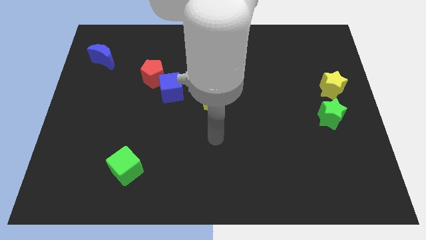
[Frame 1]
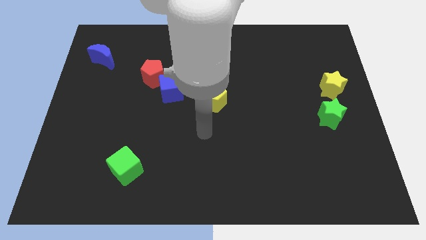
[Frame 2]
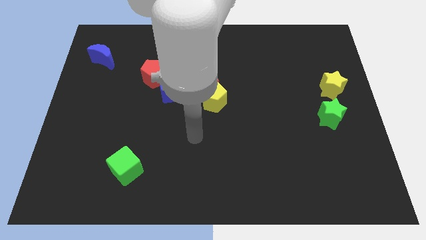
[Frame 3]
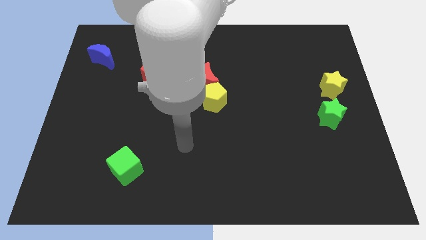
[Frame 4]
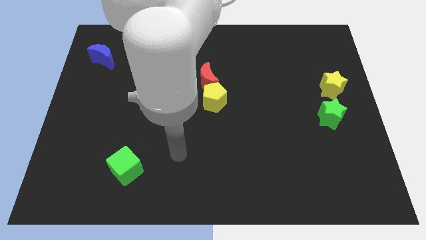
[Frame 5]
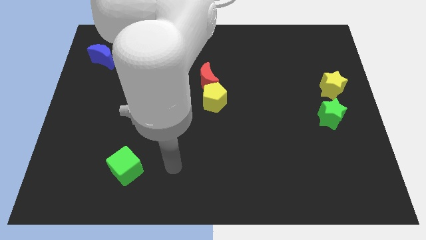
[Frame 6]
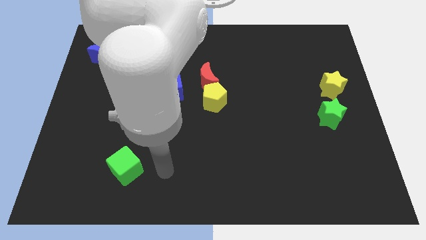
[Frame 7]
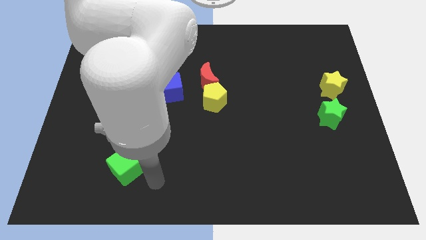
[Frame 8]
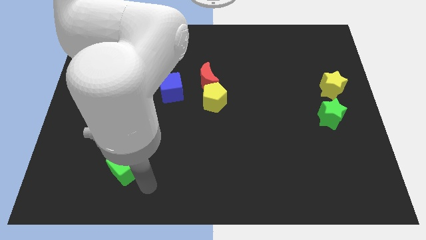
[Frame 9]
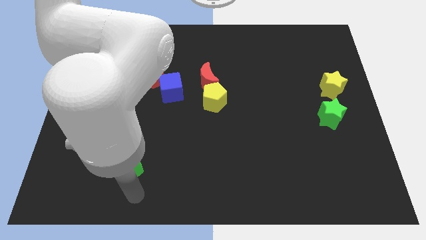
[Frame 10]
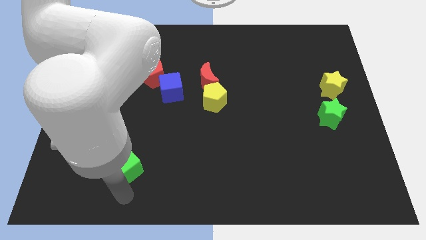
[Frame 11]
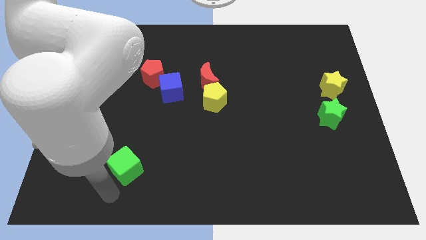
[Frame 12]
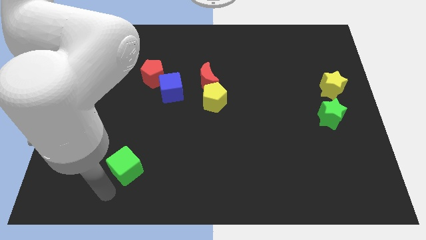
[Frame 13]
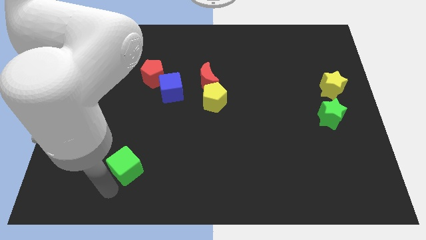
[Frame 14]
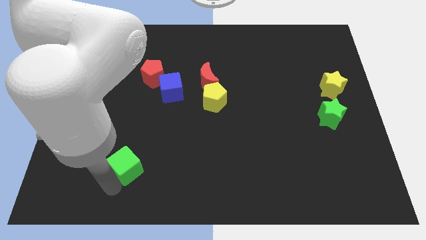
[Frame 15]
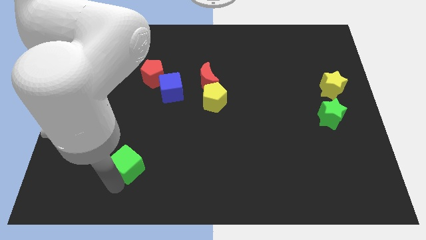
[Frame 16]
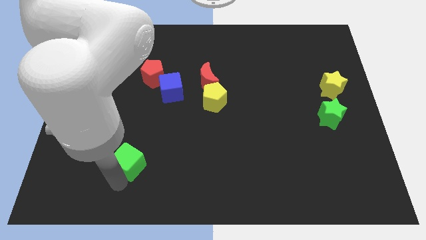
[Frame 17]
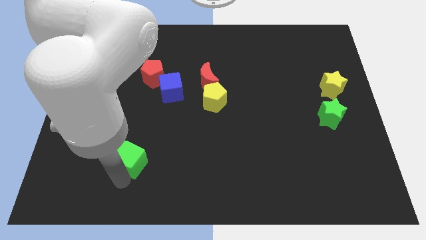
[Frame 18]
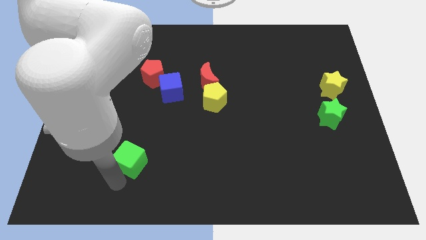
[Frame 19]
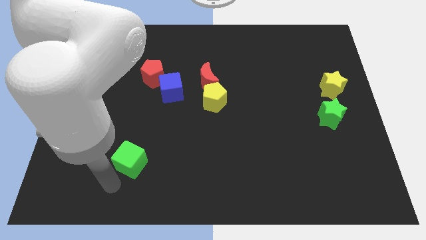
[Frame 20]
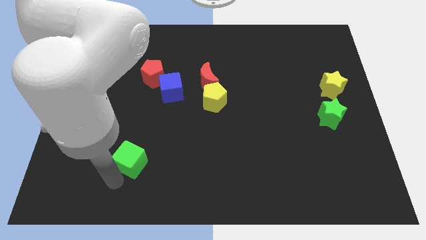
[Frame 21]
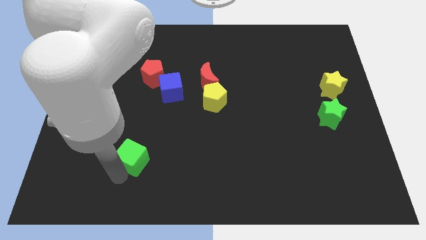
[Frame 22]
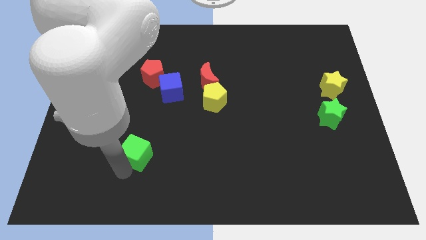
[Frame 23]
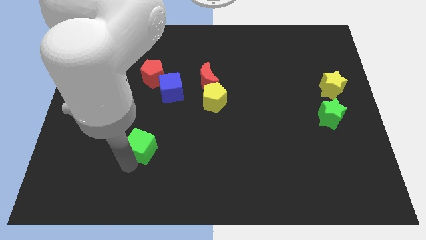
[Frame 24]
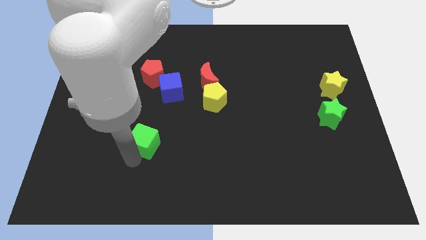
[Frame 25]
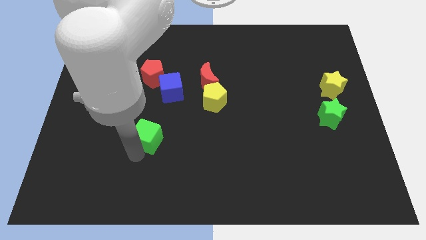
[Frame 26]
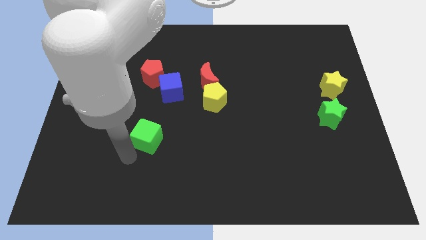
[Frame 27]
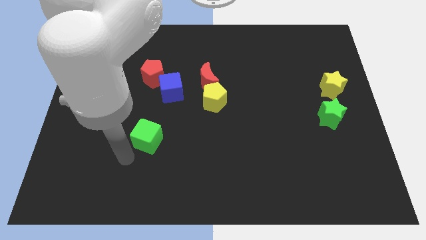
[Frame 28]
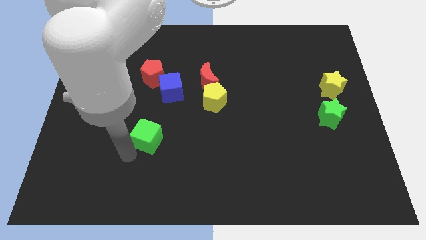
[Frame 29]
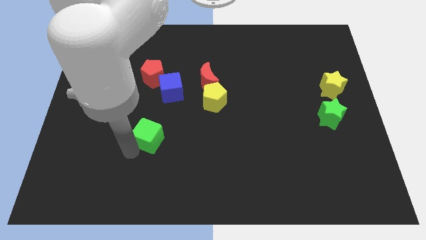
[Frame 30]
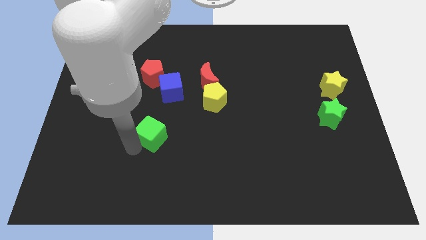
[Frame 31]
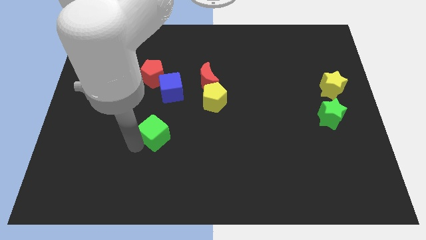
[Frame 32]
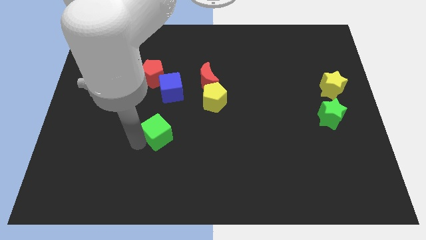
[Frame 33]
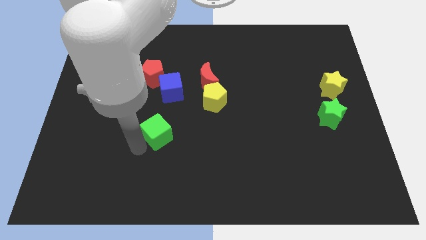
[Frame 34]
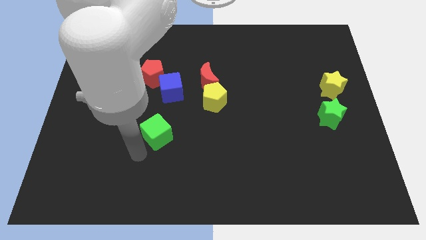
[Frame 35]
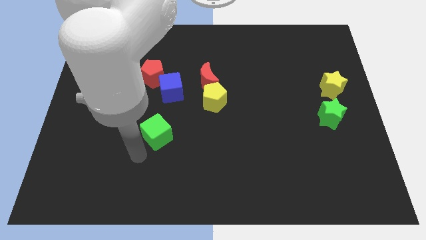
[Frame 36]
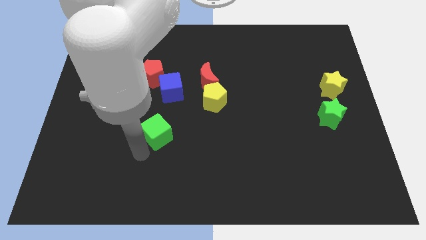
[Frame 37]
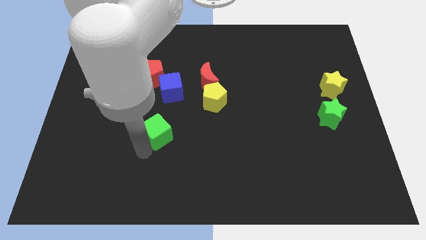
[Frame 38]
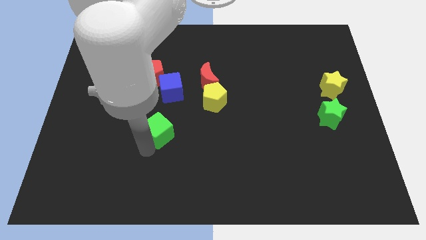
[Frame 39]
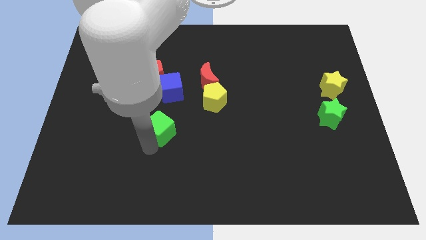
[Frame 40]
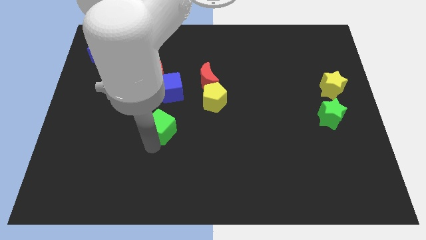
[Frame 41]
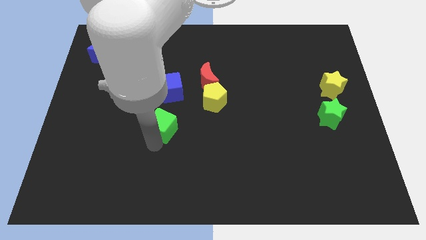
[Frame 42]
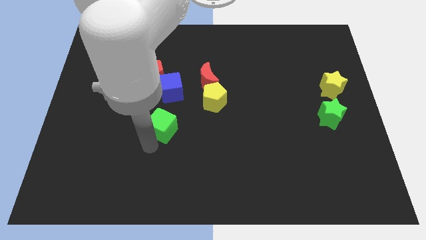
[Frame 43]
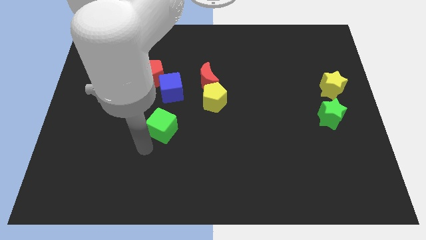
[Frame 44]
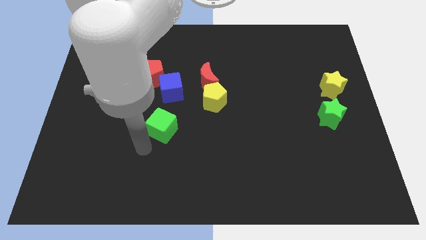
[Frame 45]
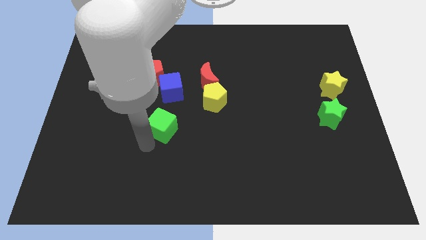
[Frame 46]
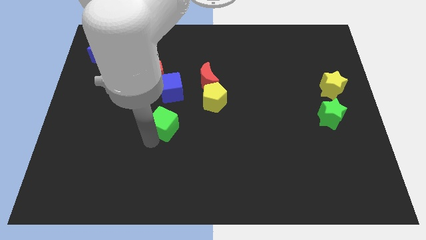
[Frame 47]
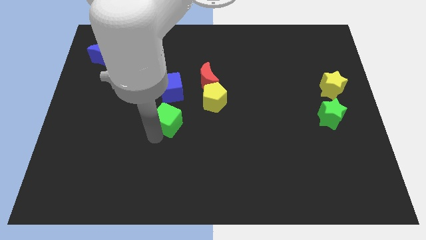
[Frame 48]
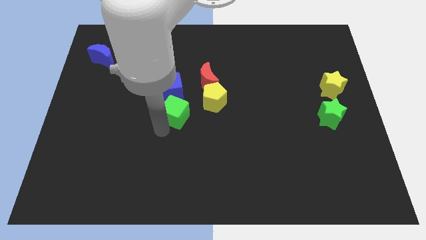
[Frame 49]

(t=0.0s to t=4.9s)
slide the green cube to the bottom left side of the red moon

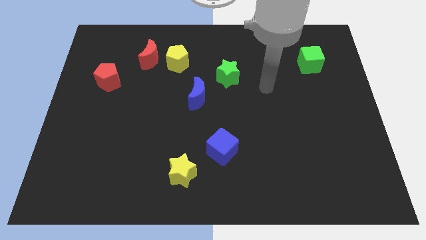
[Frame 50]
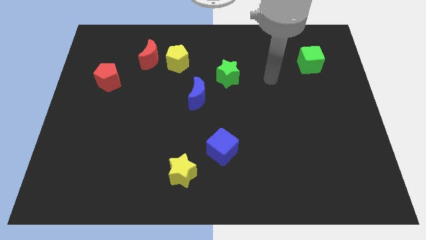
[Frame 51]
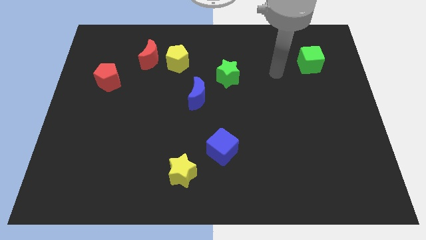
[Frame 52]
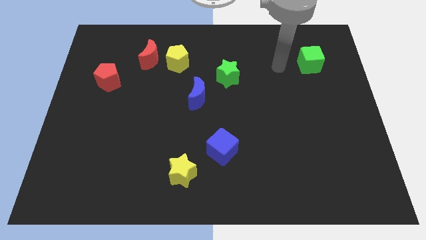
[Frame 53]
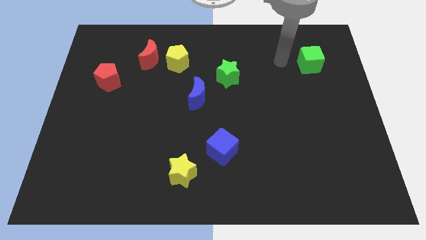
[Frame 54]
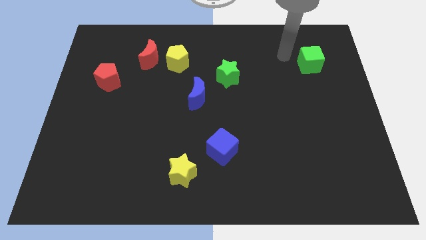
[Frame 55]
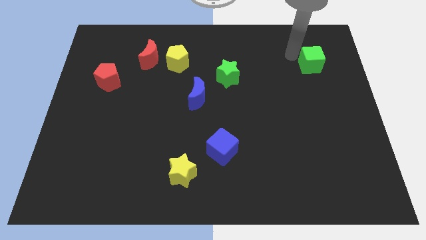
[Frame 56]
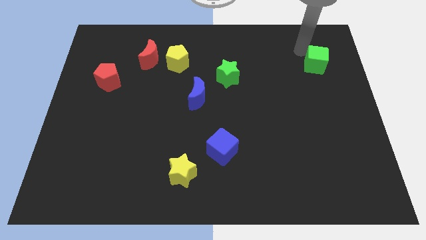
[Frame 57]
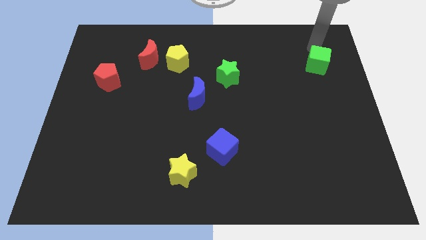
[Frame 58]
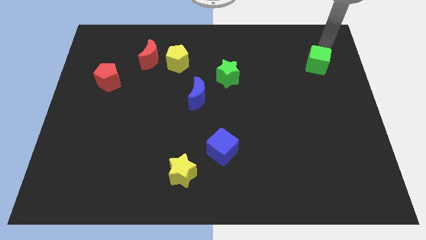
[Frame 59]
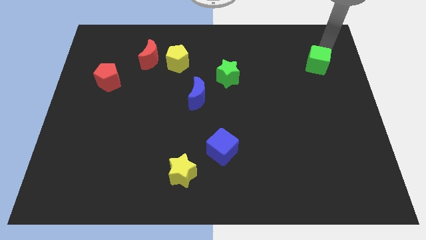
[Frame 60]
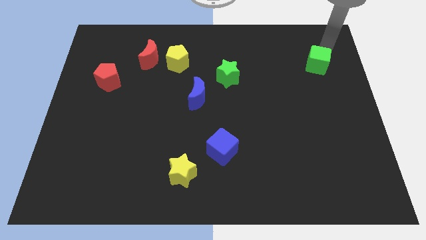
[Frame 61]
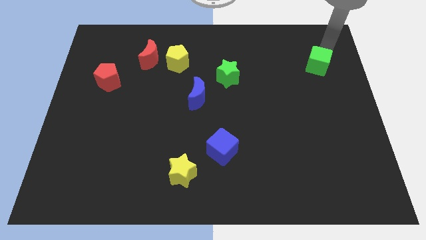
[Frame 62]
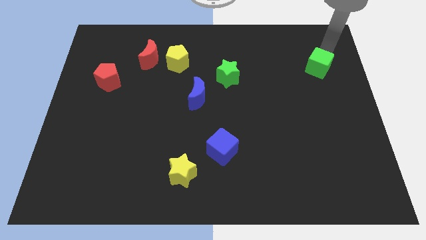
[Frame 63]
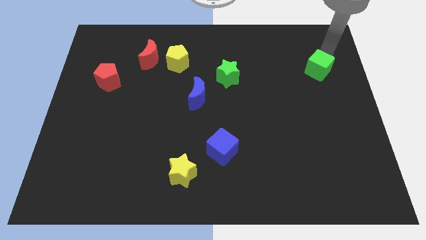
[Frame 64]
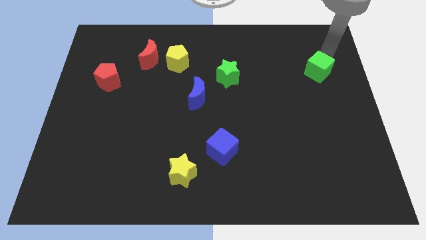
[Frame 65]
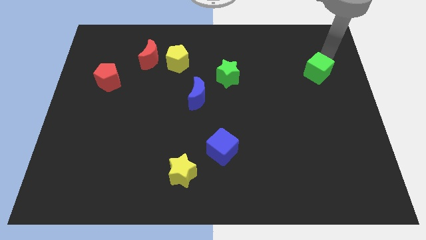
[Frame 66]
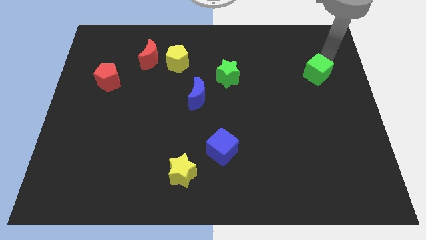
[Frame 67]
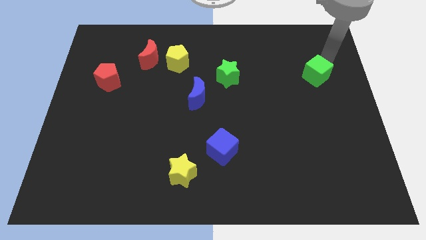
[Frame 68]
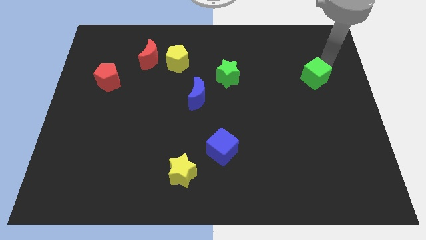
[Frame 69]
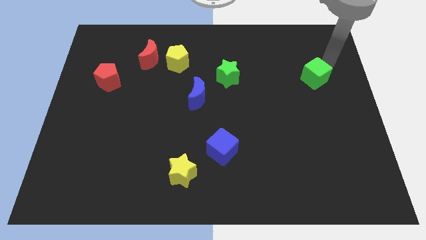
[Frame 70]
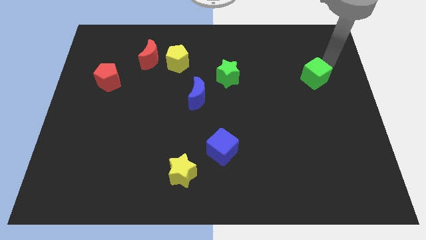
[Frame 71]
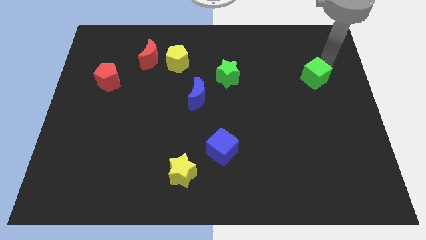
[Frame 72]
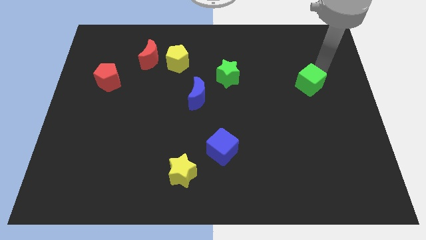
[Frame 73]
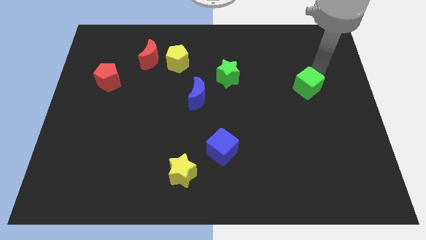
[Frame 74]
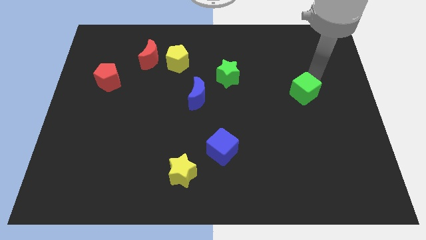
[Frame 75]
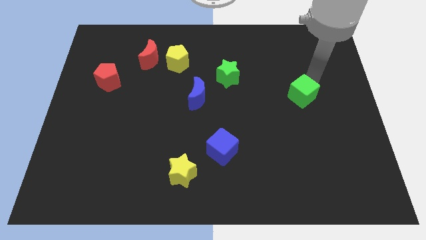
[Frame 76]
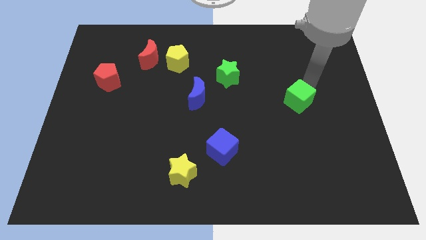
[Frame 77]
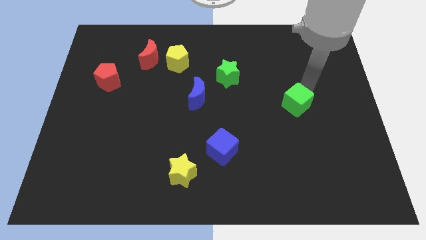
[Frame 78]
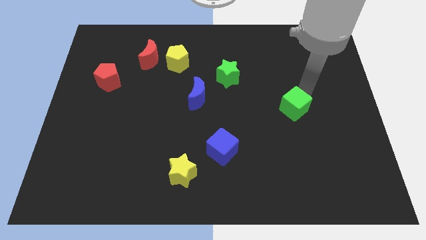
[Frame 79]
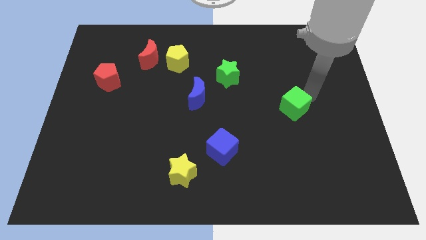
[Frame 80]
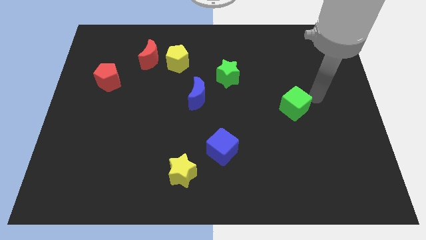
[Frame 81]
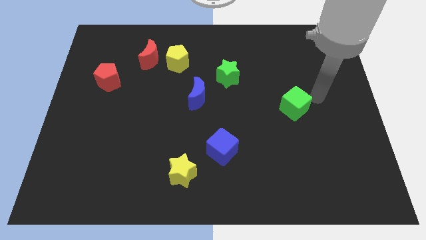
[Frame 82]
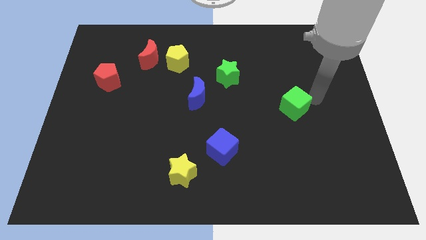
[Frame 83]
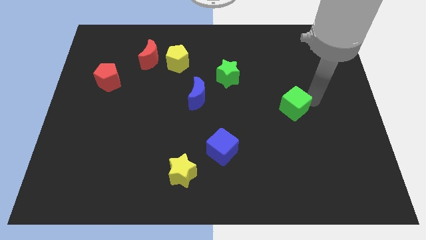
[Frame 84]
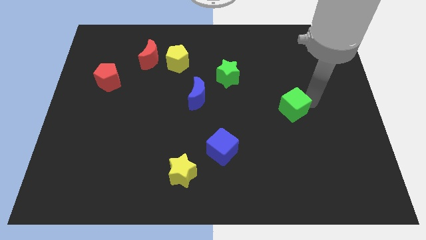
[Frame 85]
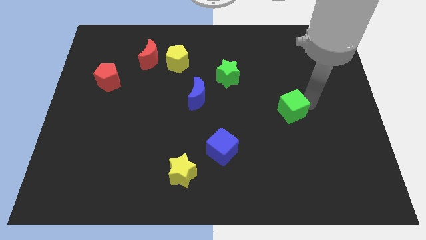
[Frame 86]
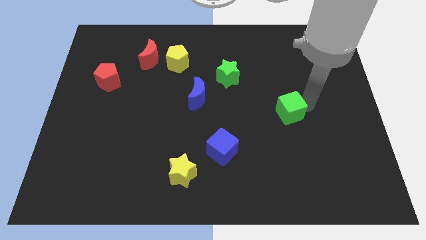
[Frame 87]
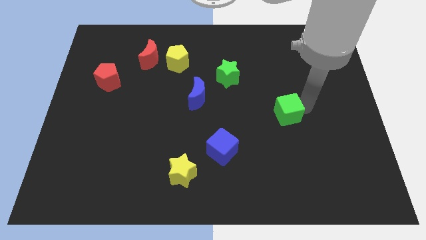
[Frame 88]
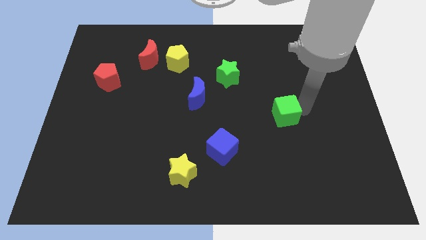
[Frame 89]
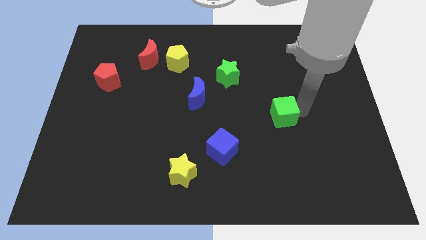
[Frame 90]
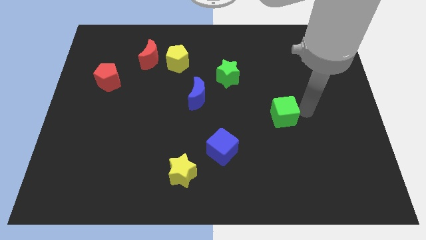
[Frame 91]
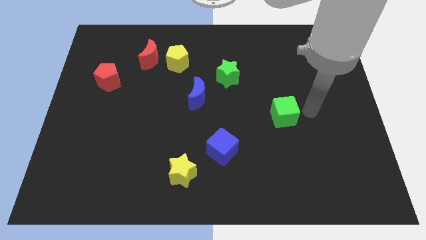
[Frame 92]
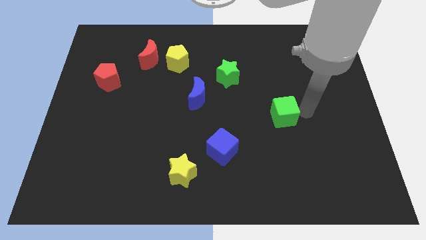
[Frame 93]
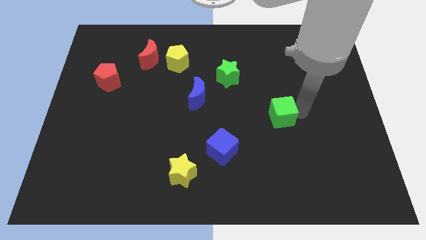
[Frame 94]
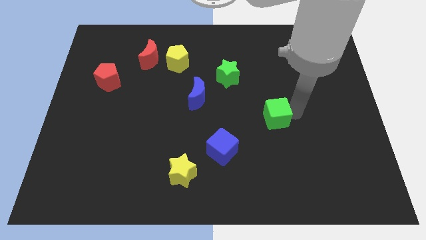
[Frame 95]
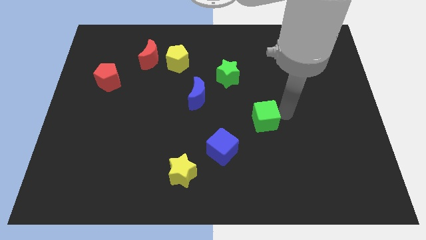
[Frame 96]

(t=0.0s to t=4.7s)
push the green cube to the top right of the blue cube
